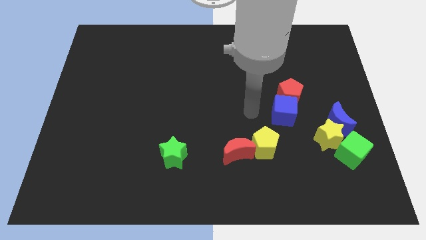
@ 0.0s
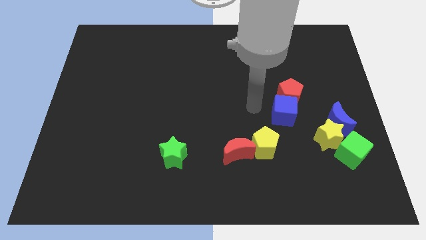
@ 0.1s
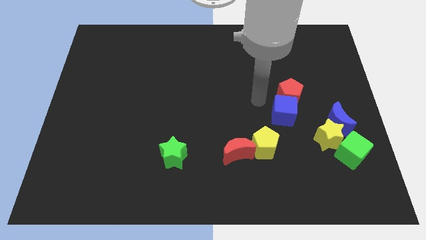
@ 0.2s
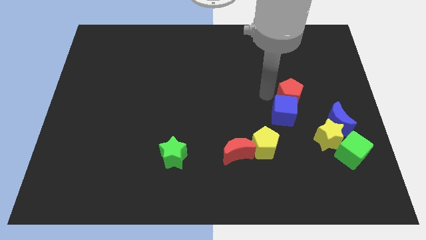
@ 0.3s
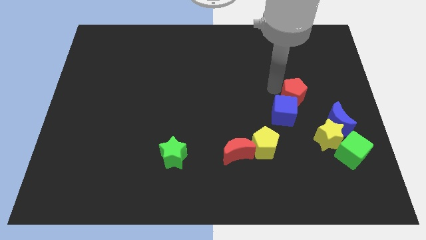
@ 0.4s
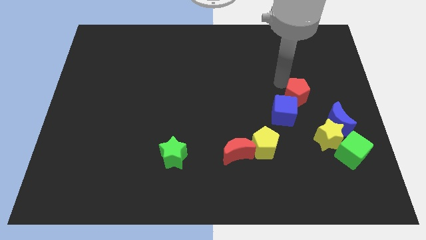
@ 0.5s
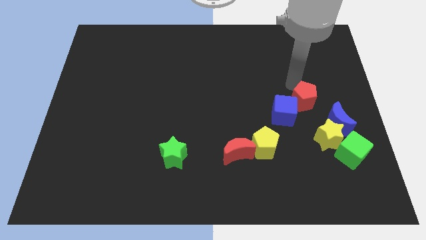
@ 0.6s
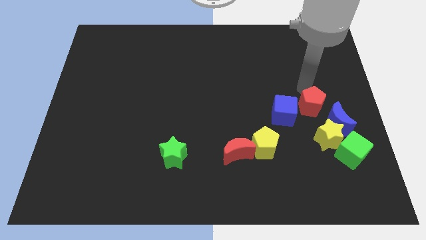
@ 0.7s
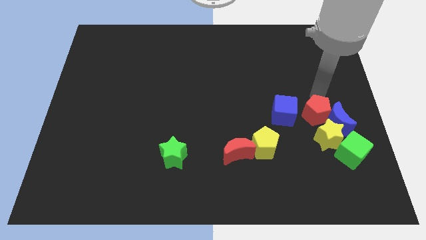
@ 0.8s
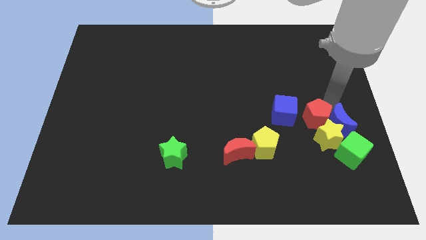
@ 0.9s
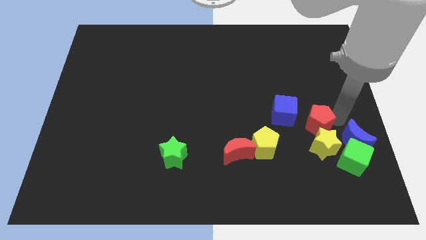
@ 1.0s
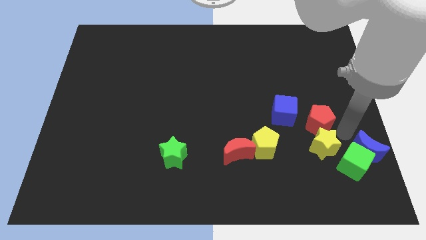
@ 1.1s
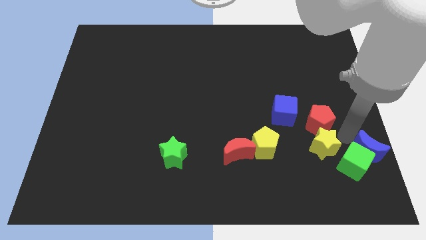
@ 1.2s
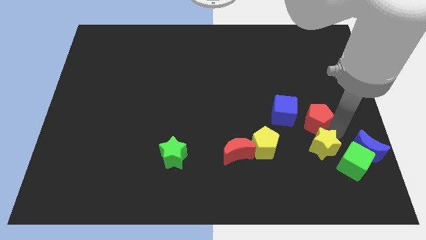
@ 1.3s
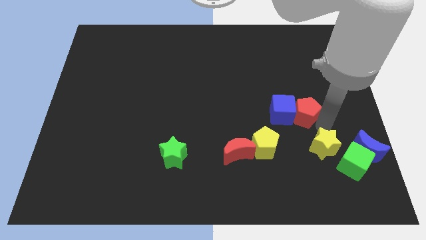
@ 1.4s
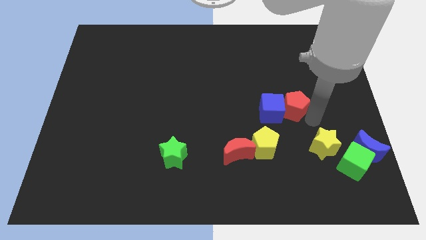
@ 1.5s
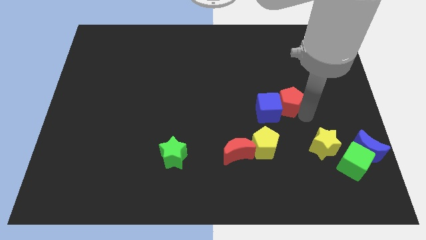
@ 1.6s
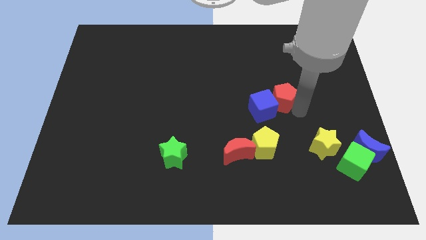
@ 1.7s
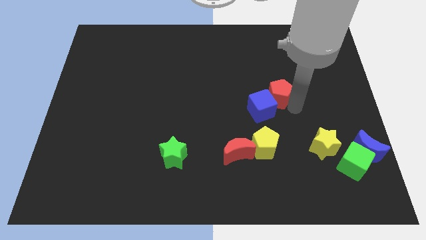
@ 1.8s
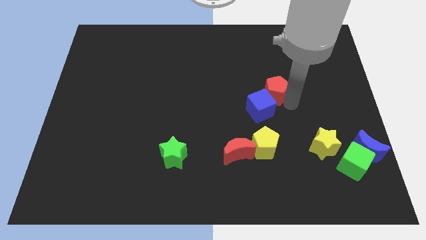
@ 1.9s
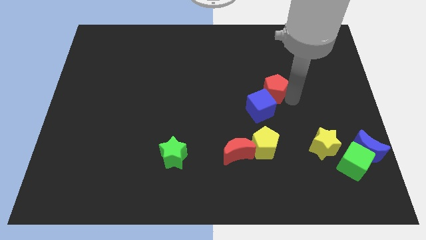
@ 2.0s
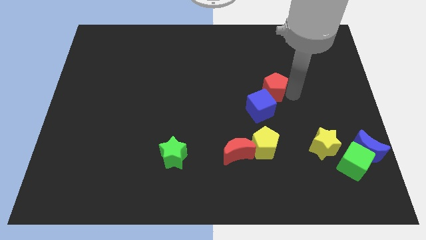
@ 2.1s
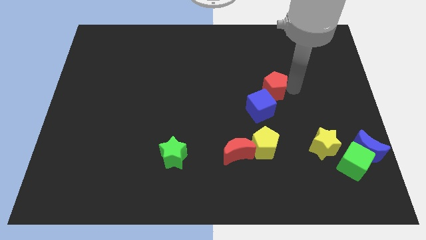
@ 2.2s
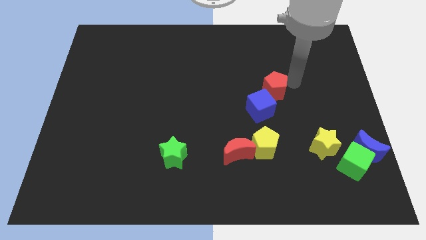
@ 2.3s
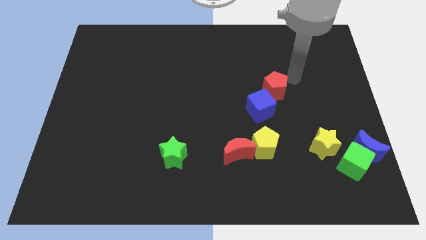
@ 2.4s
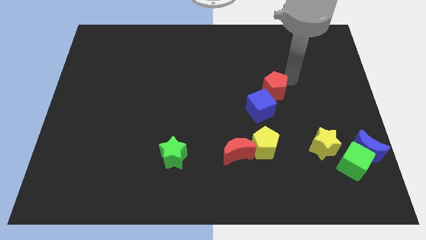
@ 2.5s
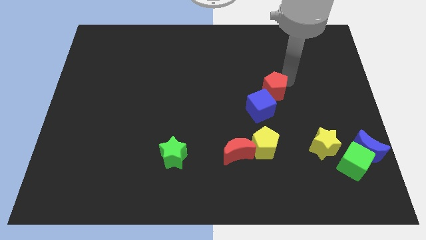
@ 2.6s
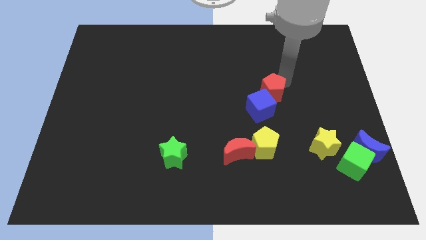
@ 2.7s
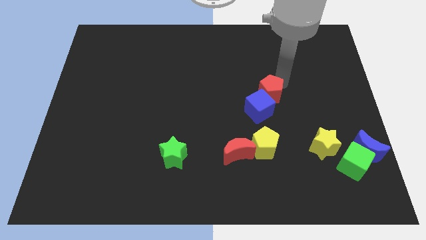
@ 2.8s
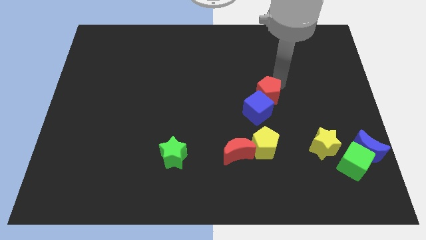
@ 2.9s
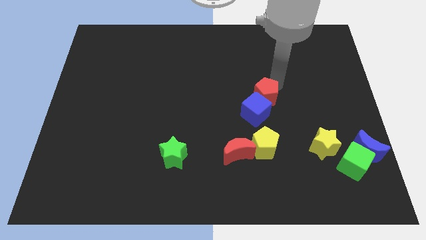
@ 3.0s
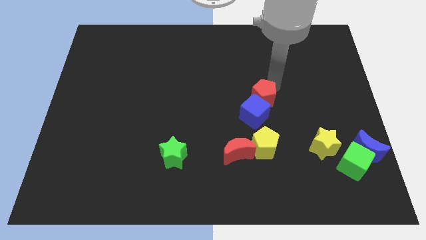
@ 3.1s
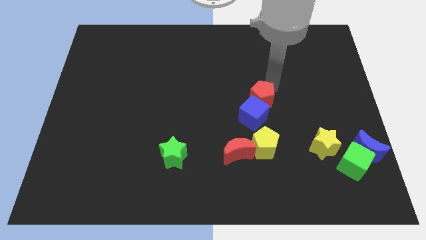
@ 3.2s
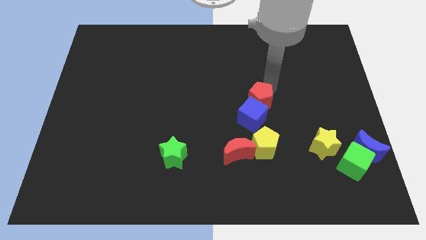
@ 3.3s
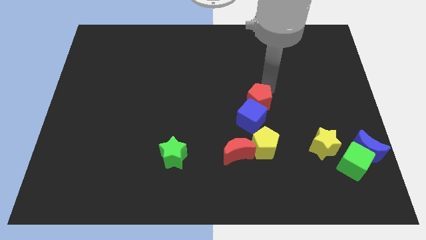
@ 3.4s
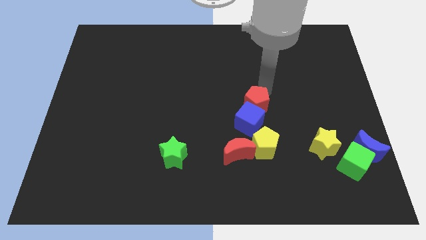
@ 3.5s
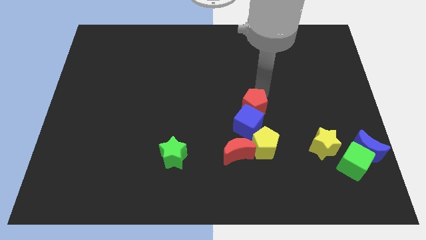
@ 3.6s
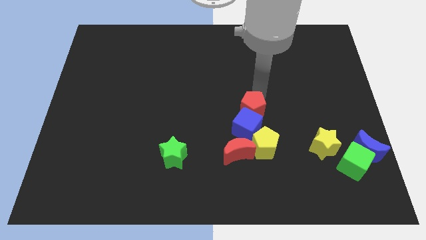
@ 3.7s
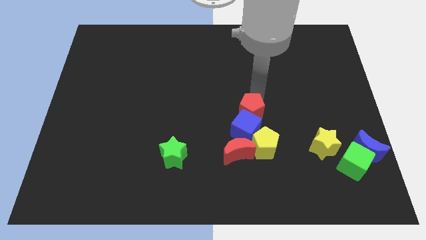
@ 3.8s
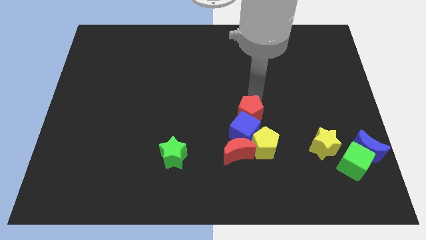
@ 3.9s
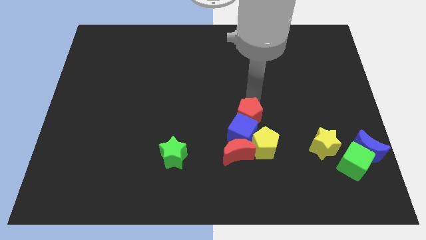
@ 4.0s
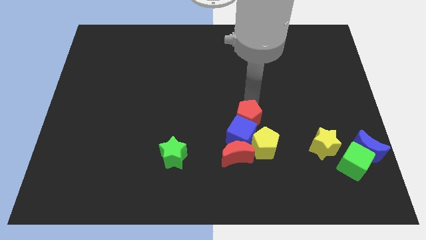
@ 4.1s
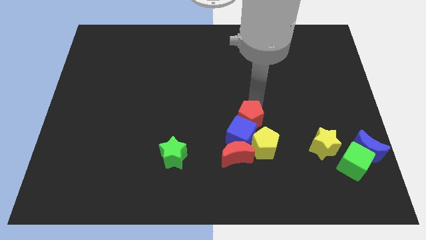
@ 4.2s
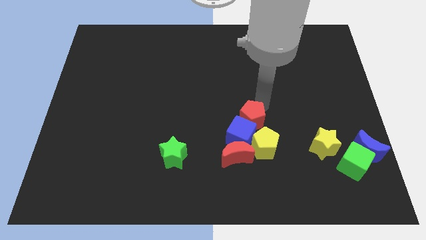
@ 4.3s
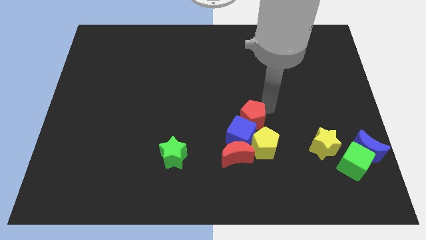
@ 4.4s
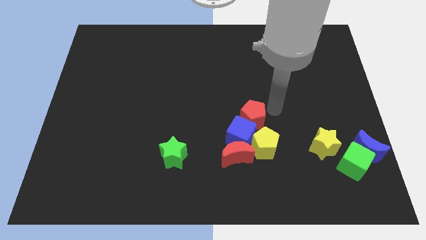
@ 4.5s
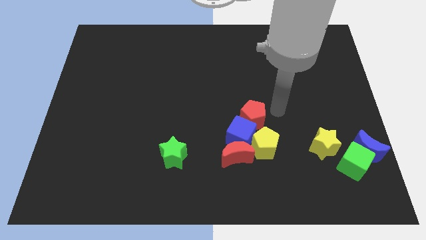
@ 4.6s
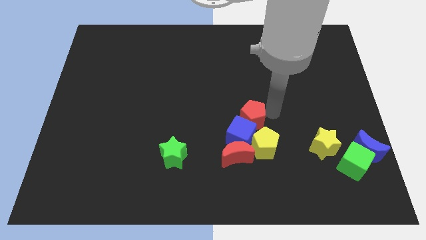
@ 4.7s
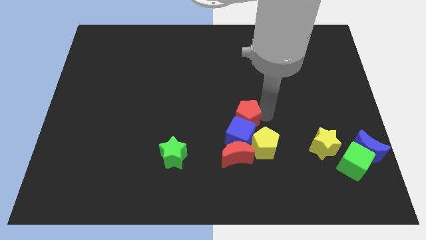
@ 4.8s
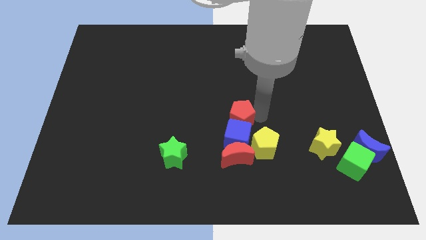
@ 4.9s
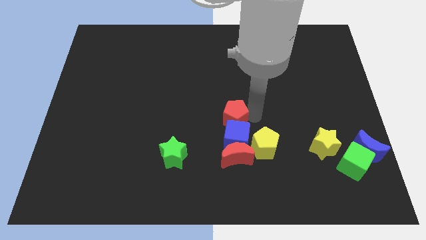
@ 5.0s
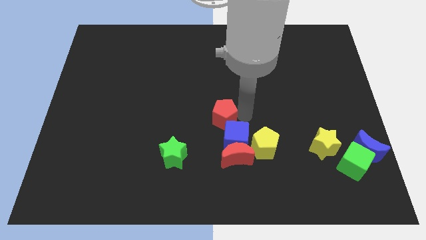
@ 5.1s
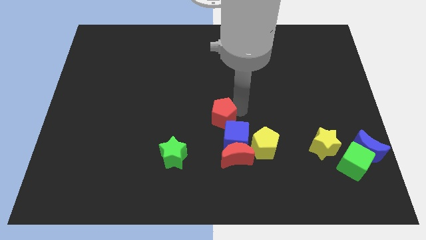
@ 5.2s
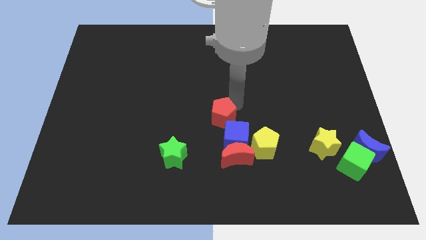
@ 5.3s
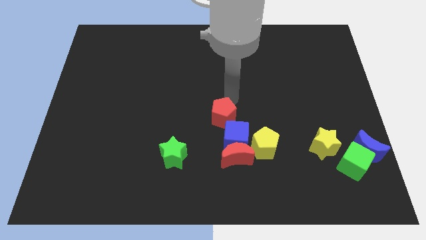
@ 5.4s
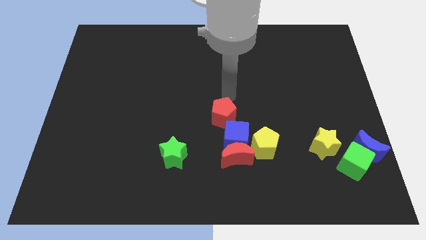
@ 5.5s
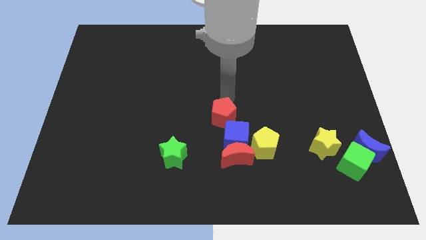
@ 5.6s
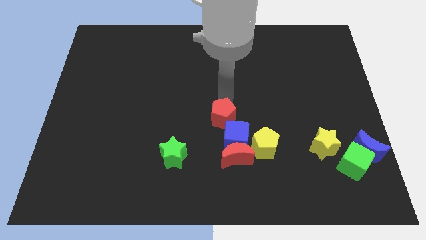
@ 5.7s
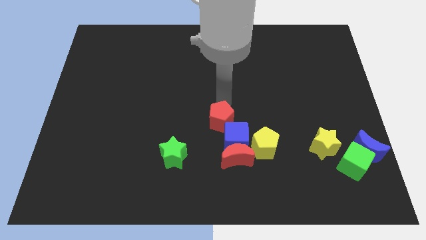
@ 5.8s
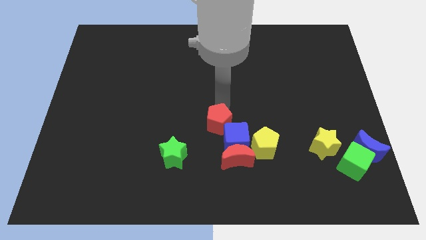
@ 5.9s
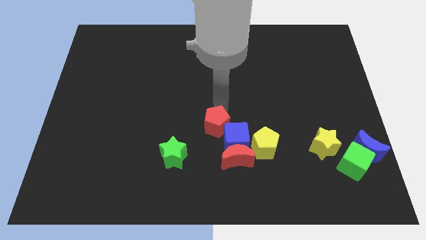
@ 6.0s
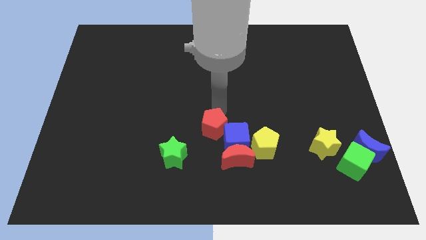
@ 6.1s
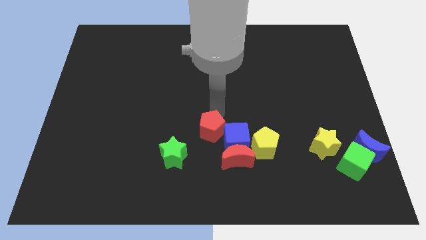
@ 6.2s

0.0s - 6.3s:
slide the red pentagon left of the yellow pentagon
